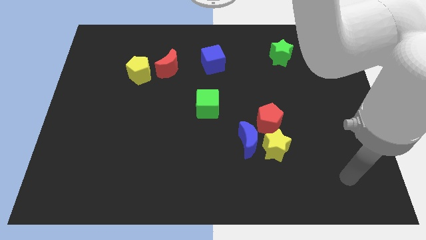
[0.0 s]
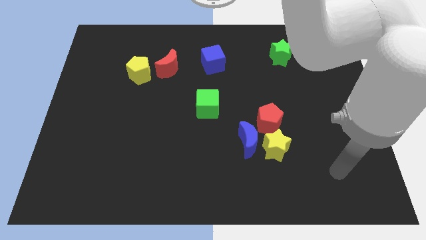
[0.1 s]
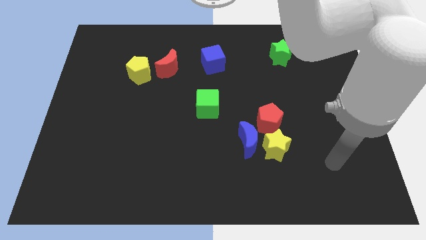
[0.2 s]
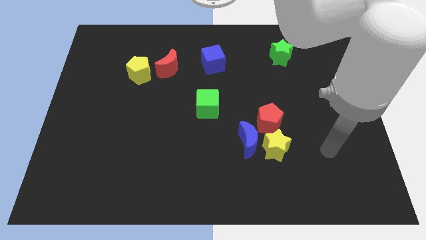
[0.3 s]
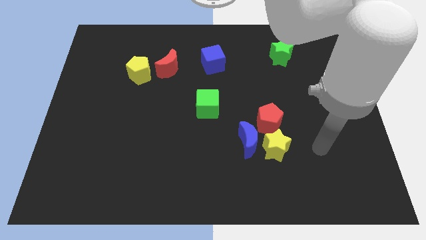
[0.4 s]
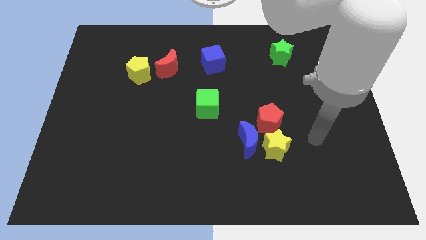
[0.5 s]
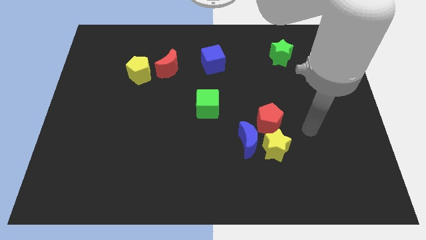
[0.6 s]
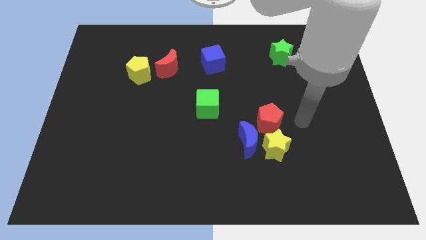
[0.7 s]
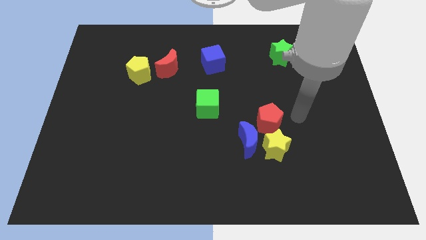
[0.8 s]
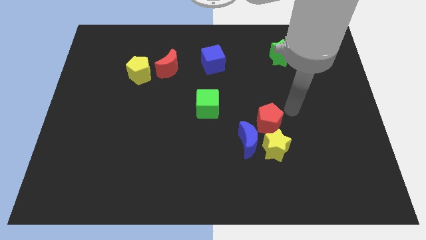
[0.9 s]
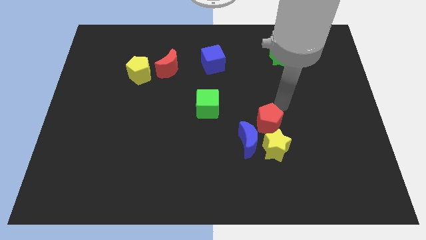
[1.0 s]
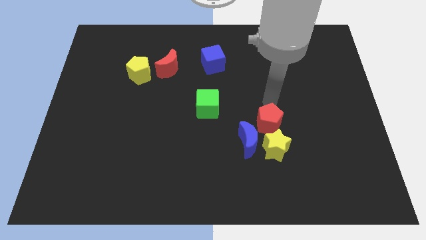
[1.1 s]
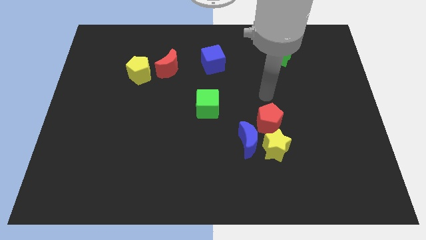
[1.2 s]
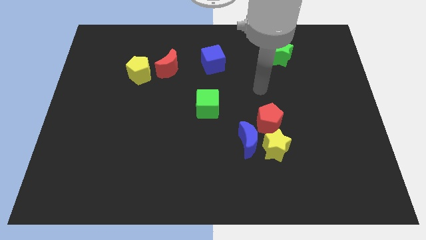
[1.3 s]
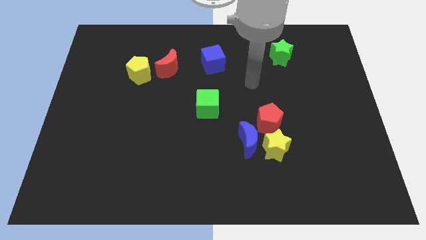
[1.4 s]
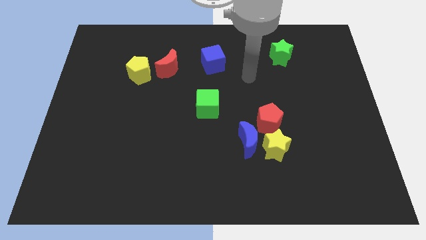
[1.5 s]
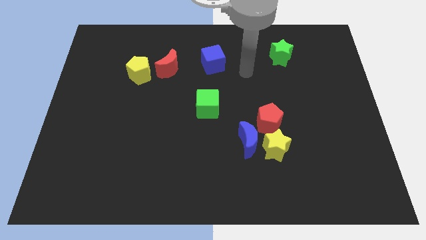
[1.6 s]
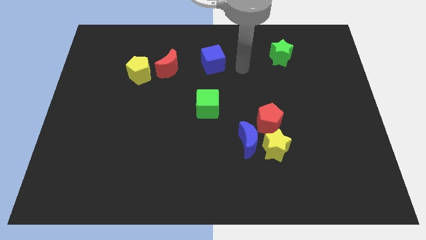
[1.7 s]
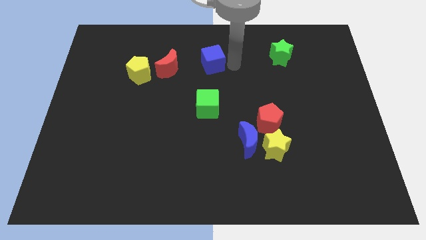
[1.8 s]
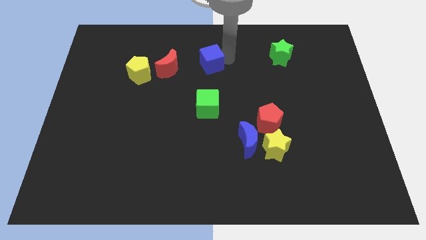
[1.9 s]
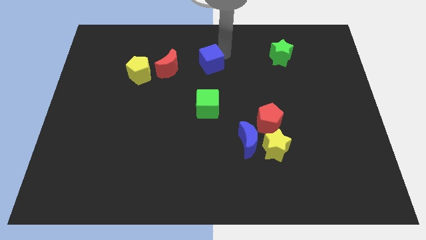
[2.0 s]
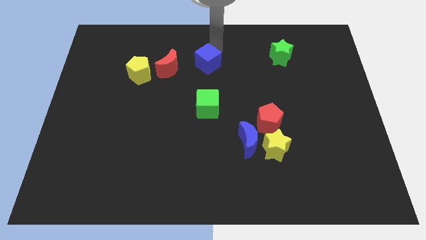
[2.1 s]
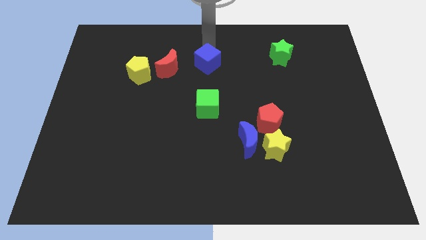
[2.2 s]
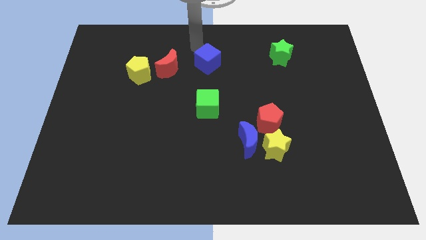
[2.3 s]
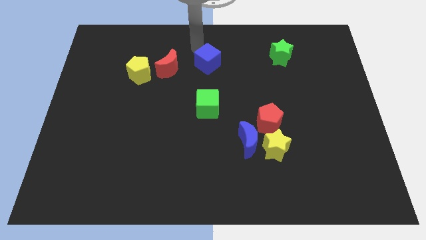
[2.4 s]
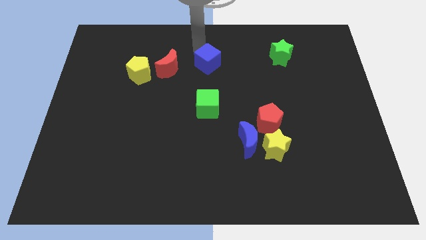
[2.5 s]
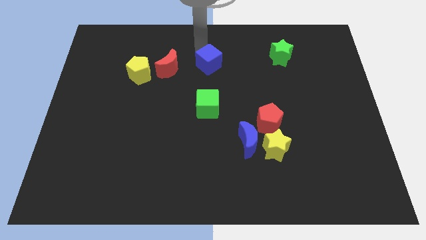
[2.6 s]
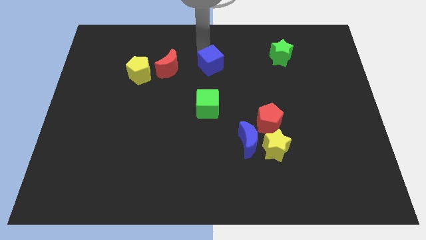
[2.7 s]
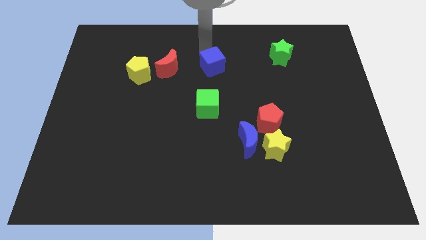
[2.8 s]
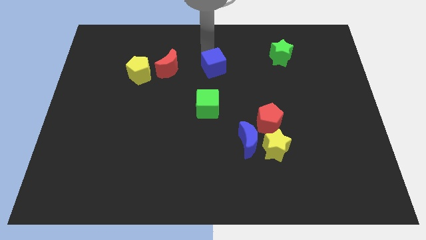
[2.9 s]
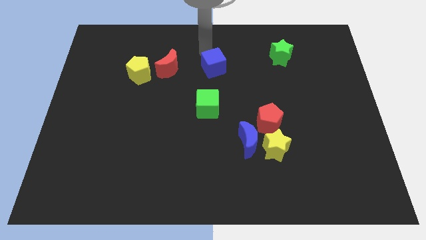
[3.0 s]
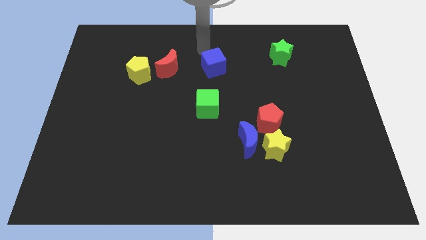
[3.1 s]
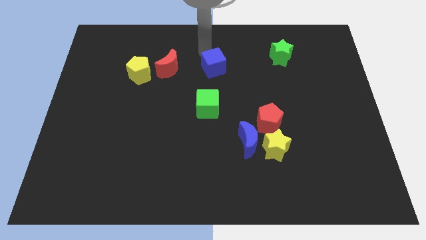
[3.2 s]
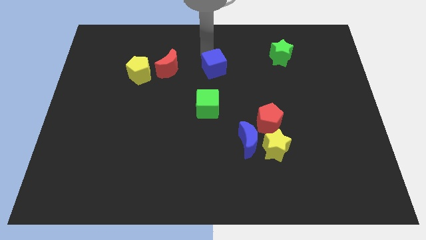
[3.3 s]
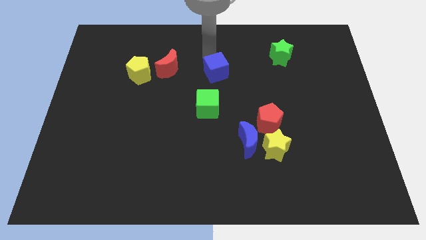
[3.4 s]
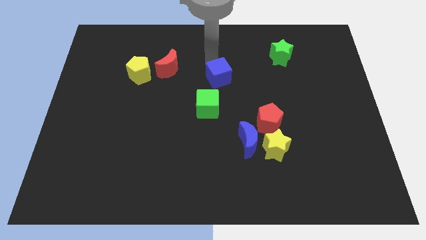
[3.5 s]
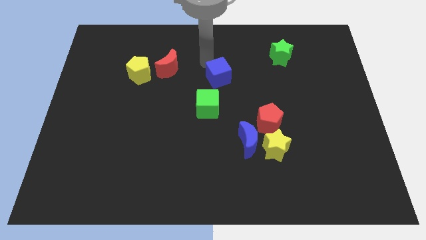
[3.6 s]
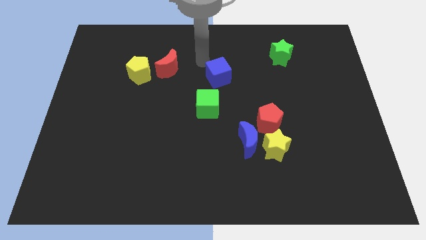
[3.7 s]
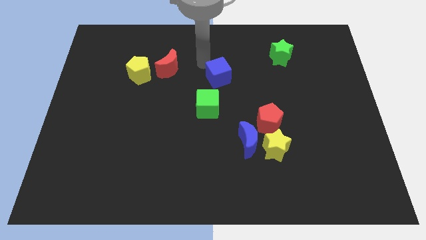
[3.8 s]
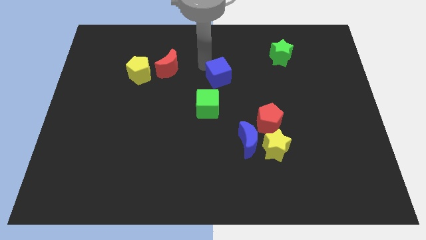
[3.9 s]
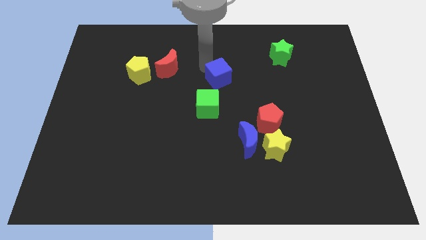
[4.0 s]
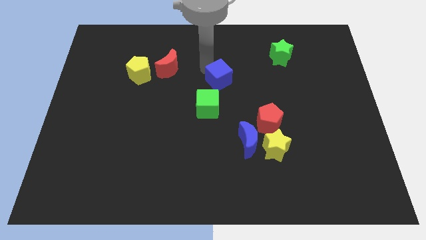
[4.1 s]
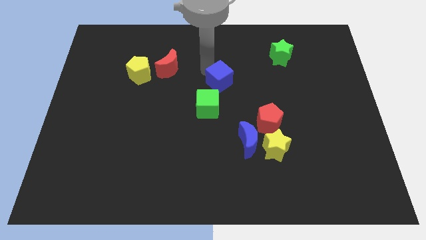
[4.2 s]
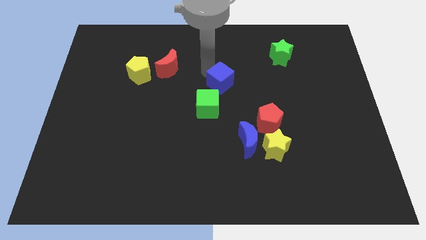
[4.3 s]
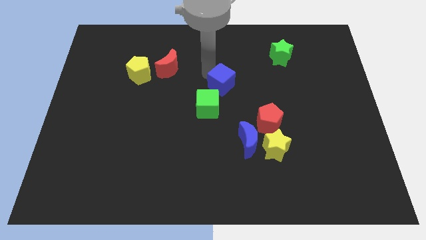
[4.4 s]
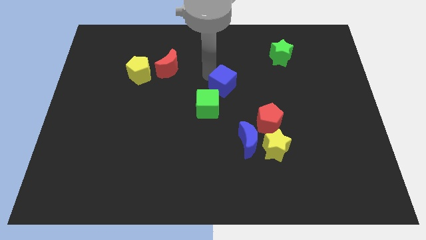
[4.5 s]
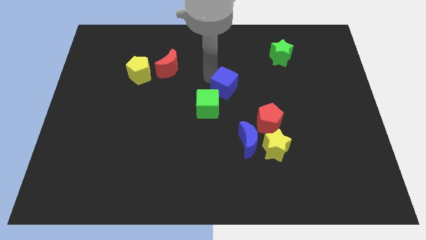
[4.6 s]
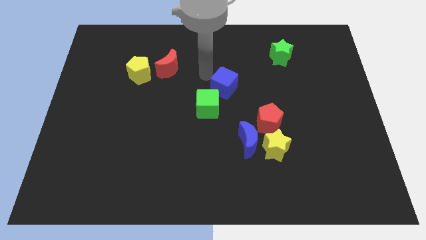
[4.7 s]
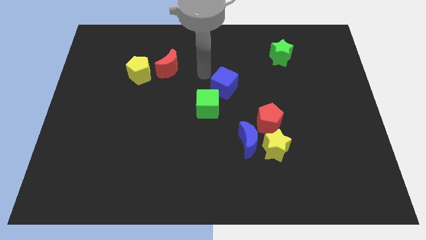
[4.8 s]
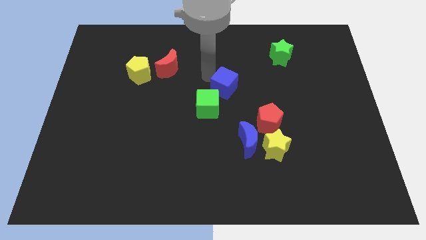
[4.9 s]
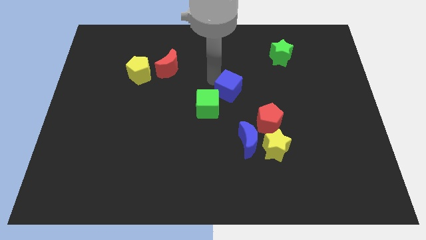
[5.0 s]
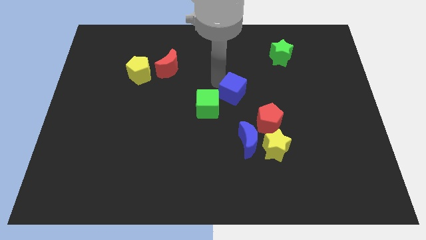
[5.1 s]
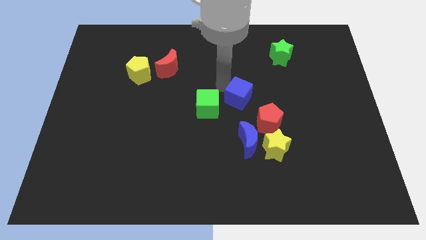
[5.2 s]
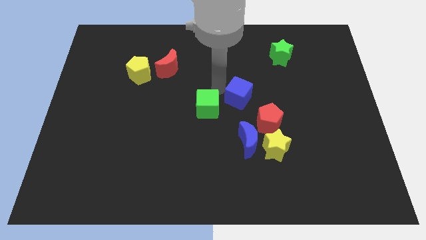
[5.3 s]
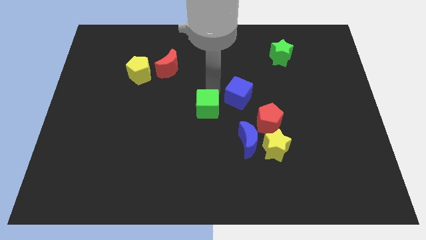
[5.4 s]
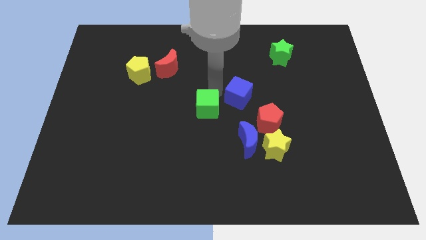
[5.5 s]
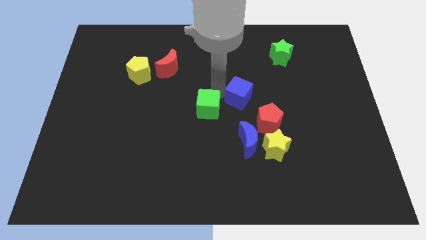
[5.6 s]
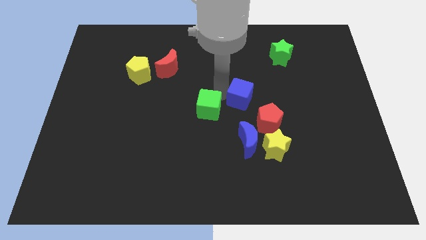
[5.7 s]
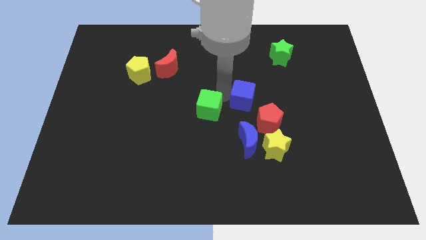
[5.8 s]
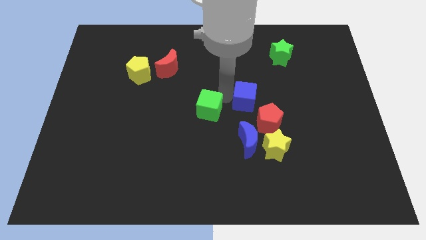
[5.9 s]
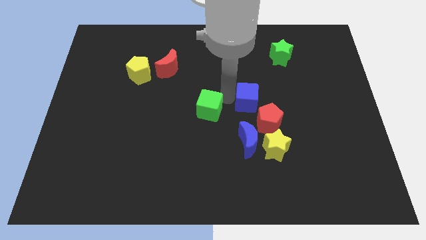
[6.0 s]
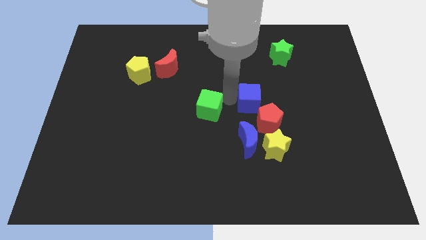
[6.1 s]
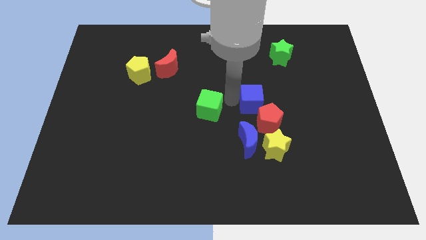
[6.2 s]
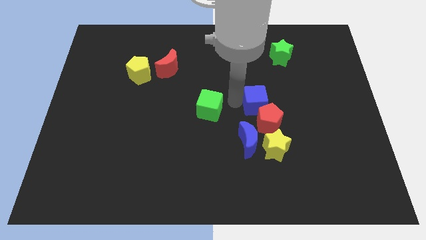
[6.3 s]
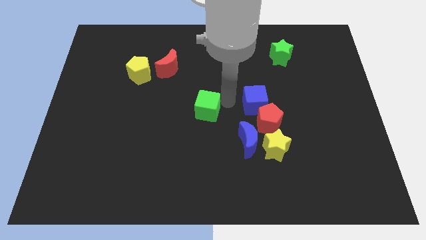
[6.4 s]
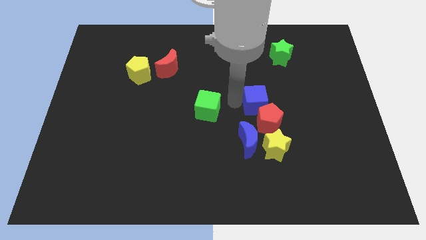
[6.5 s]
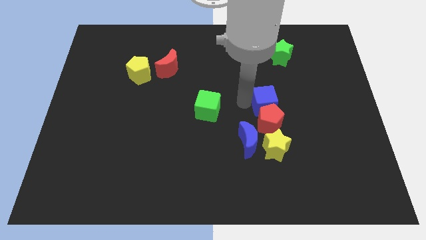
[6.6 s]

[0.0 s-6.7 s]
push the blue cube diagonally up and to the right of the red pentagon

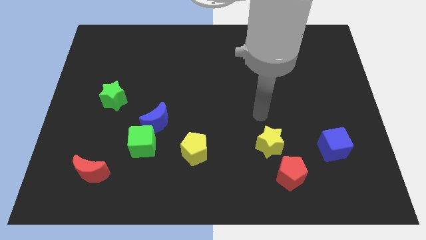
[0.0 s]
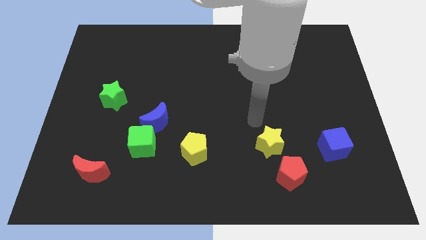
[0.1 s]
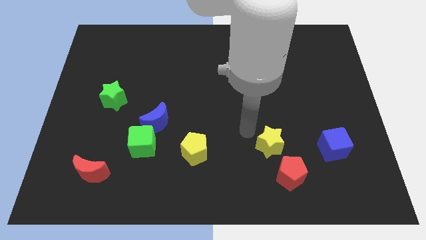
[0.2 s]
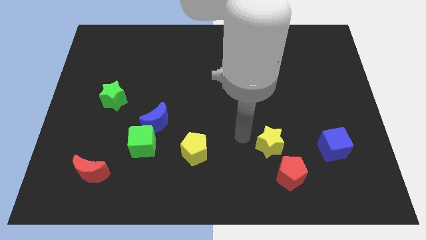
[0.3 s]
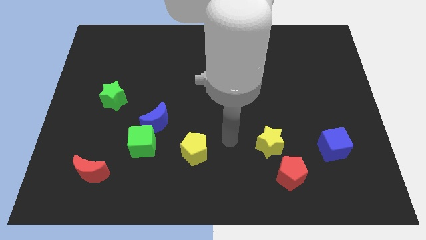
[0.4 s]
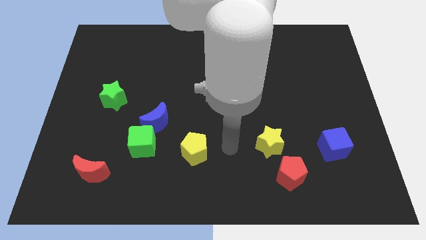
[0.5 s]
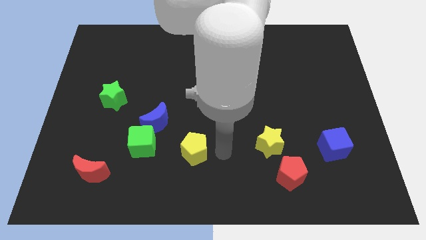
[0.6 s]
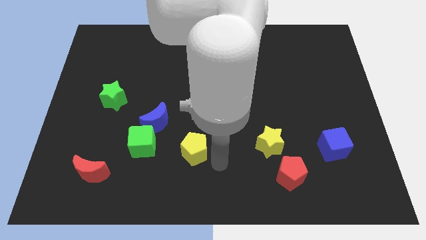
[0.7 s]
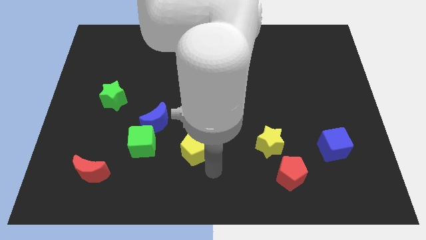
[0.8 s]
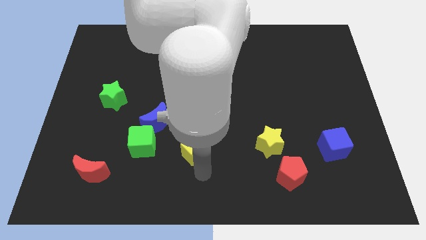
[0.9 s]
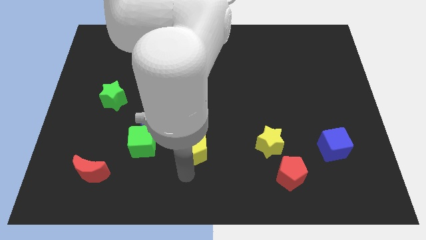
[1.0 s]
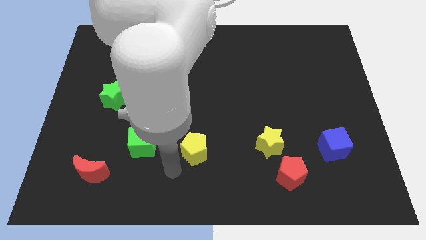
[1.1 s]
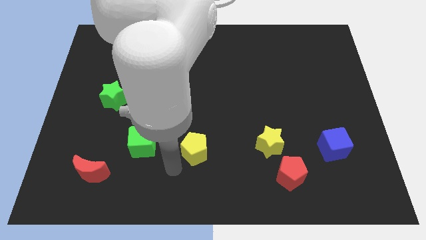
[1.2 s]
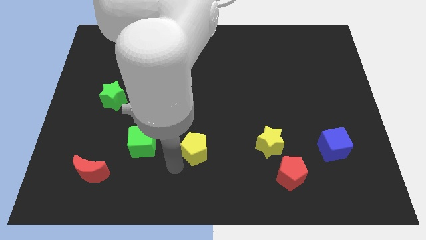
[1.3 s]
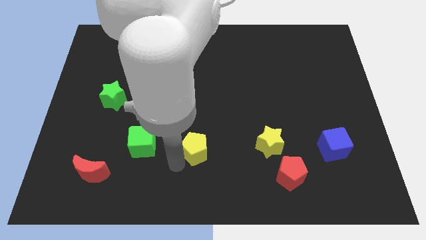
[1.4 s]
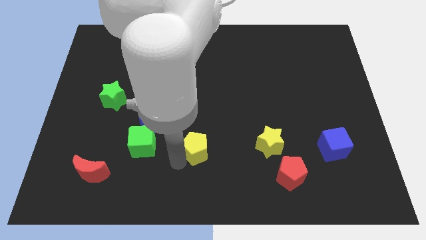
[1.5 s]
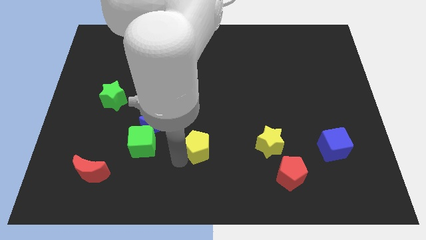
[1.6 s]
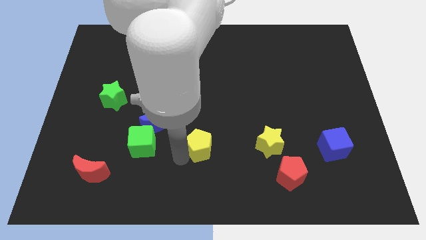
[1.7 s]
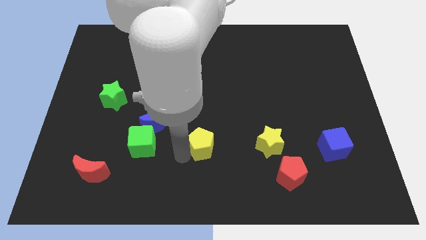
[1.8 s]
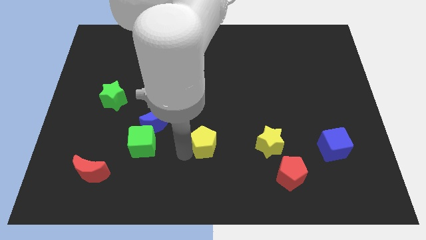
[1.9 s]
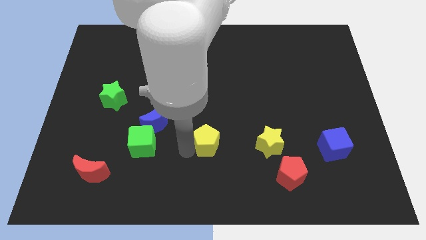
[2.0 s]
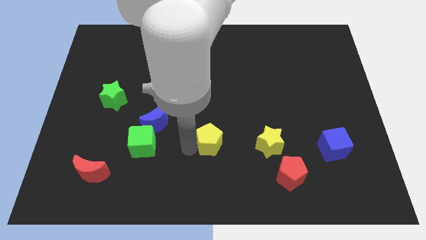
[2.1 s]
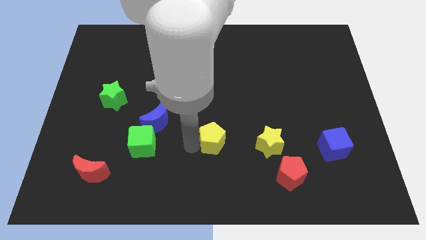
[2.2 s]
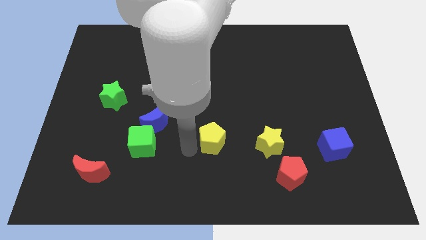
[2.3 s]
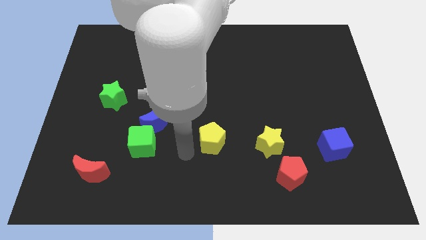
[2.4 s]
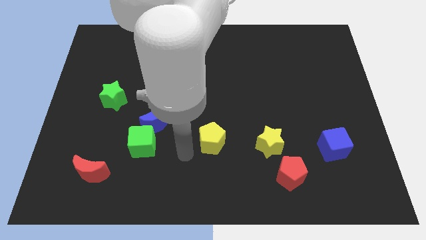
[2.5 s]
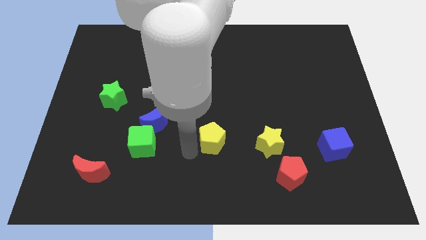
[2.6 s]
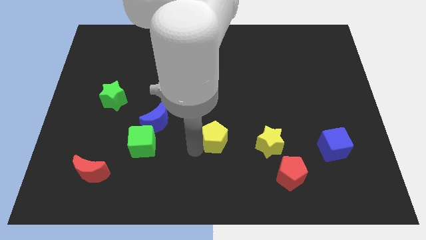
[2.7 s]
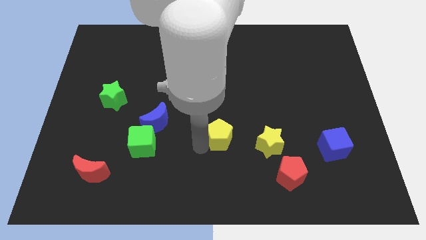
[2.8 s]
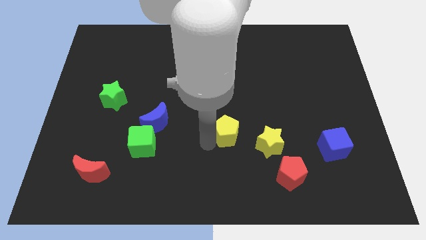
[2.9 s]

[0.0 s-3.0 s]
push the yellow pentagon to the top left side of the yellow star
